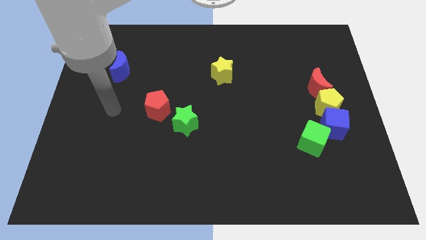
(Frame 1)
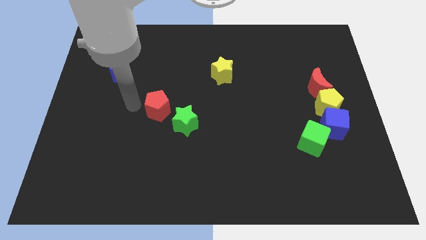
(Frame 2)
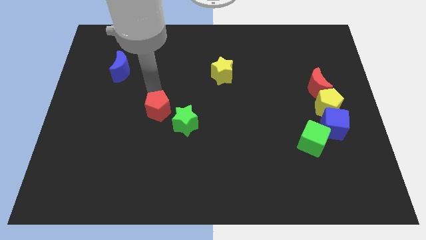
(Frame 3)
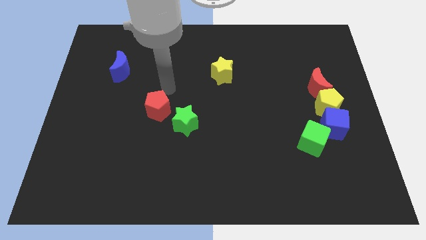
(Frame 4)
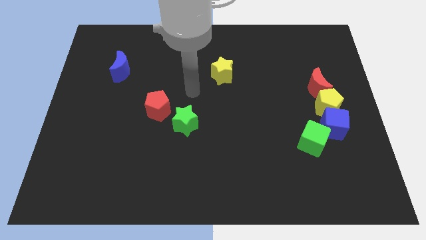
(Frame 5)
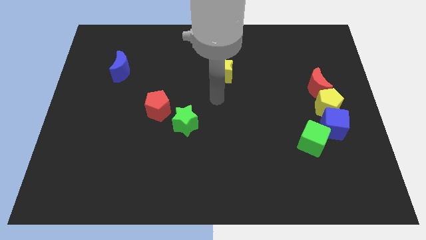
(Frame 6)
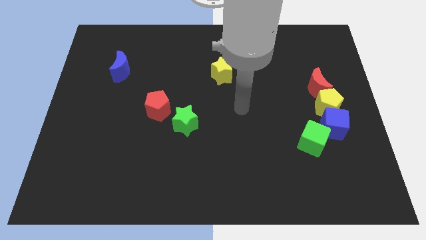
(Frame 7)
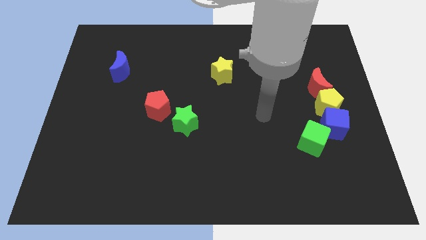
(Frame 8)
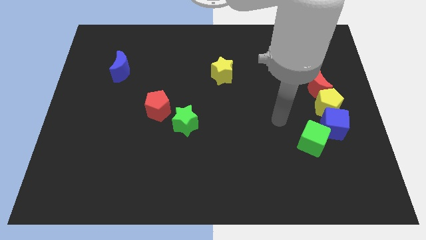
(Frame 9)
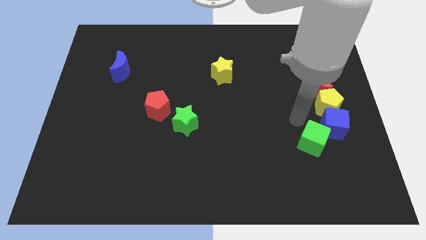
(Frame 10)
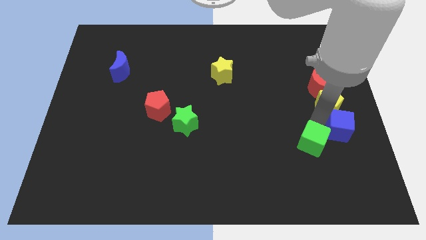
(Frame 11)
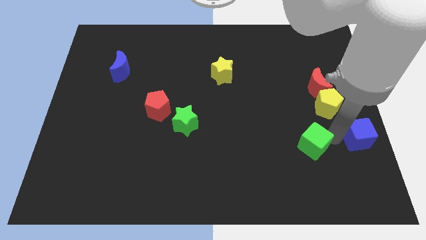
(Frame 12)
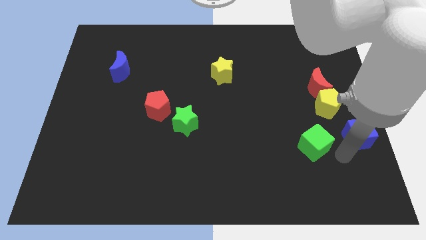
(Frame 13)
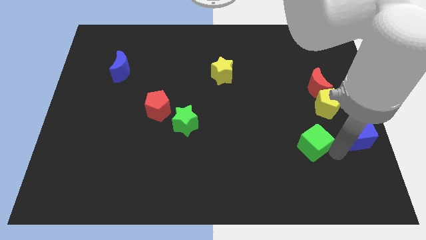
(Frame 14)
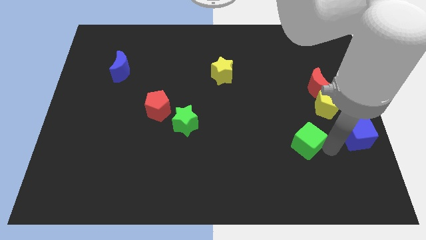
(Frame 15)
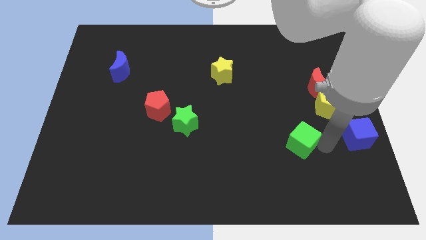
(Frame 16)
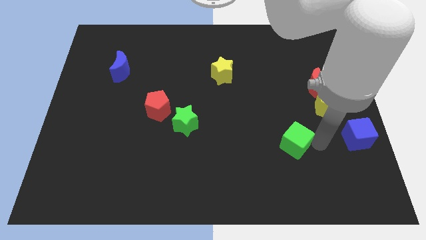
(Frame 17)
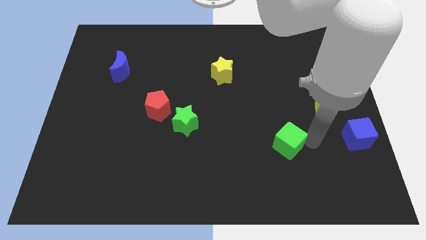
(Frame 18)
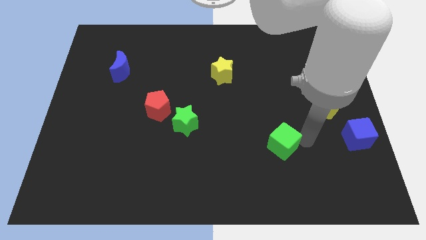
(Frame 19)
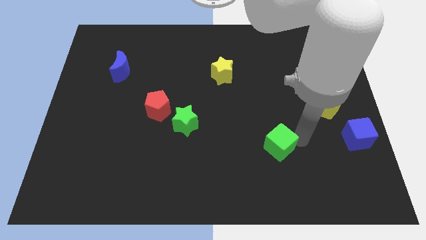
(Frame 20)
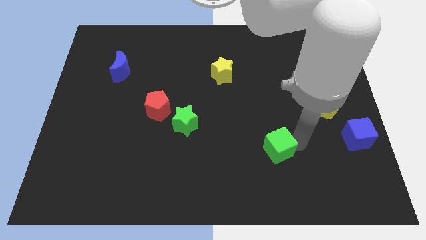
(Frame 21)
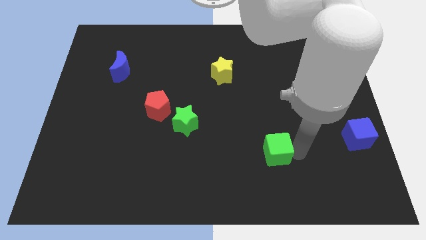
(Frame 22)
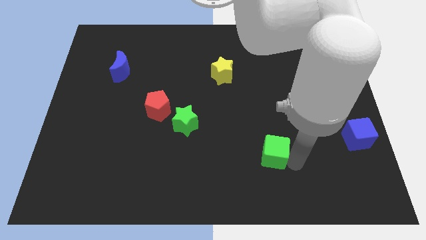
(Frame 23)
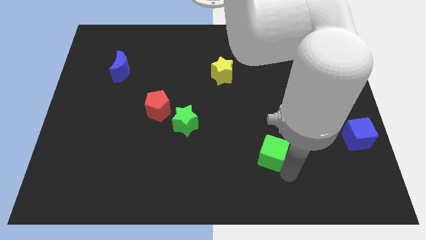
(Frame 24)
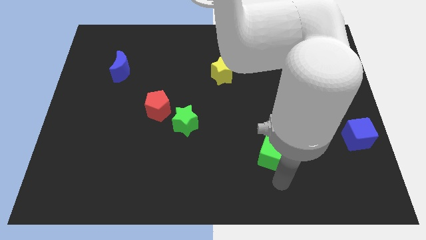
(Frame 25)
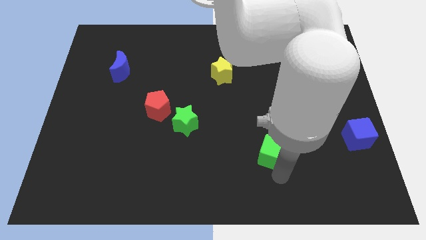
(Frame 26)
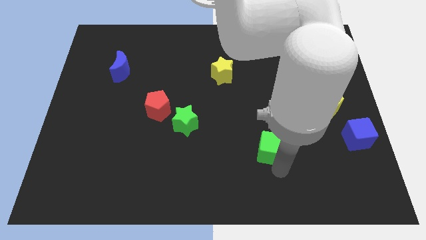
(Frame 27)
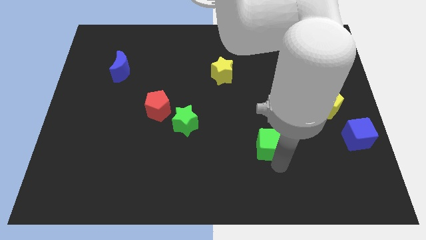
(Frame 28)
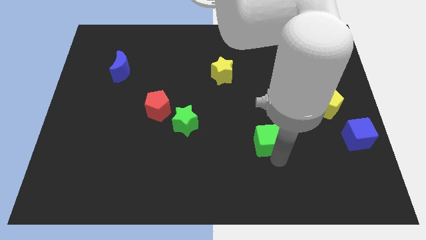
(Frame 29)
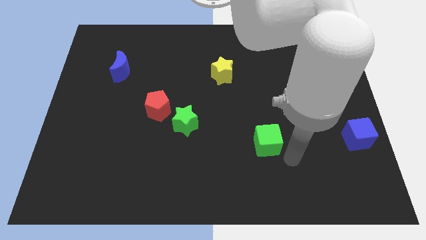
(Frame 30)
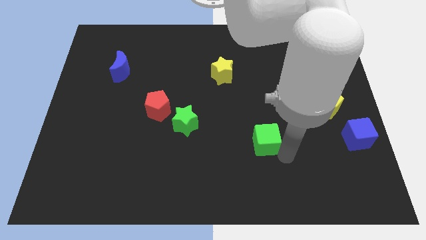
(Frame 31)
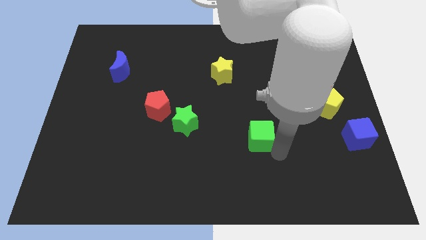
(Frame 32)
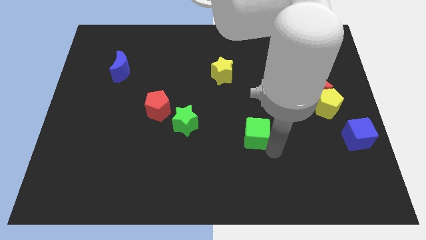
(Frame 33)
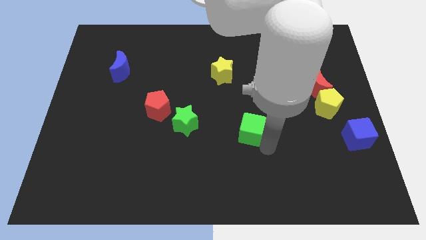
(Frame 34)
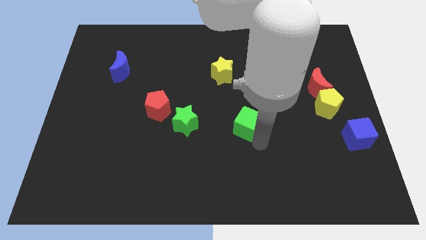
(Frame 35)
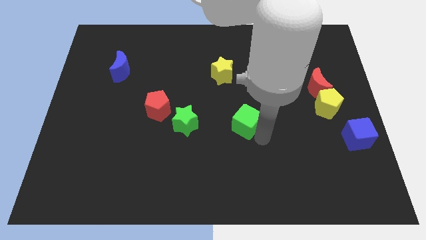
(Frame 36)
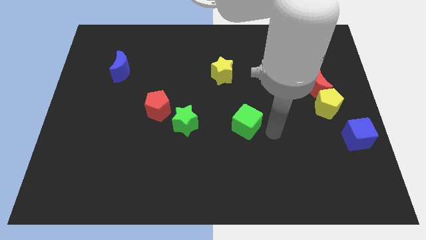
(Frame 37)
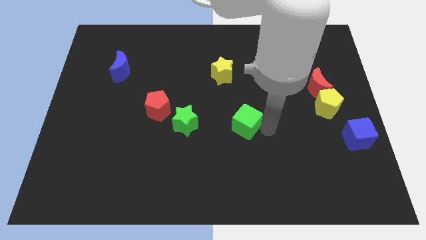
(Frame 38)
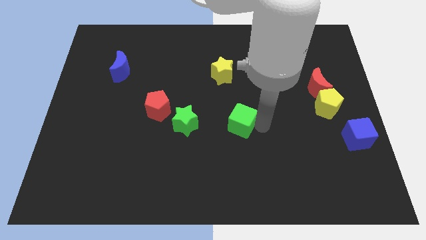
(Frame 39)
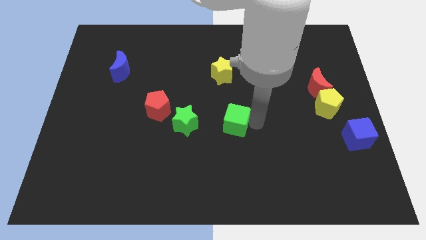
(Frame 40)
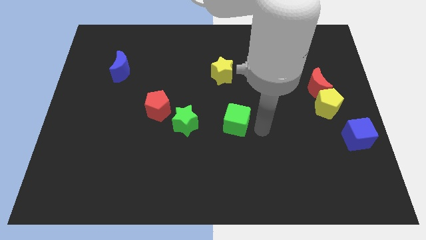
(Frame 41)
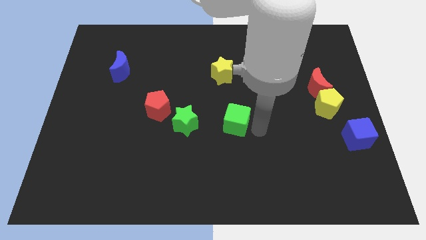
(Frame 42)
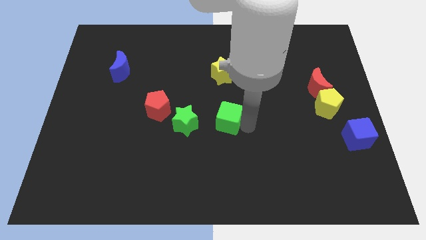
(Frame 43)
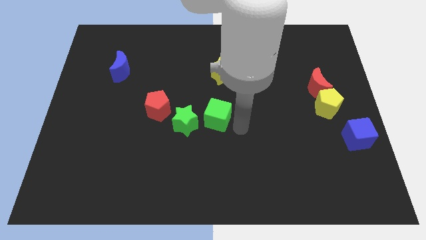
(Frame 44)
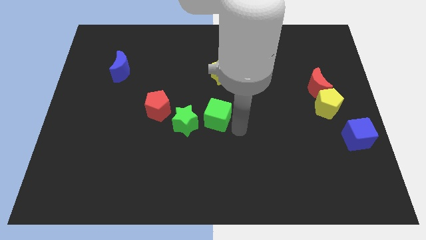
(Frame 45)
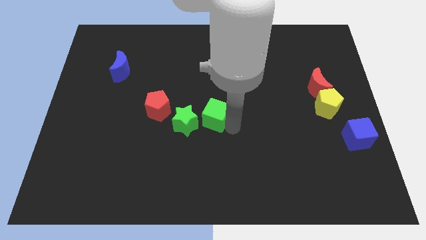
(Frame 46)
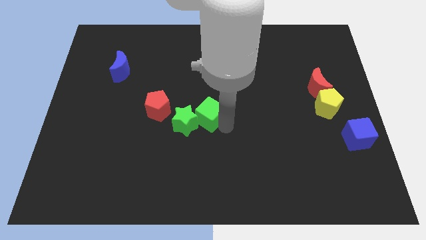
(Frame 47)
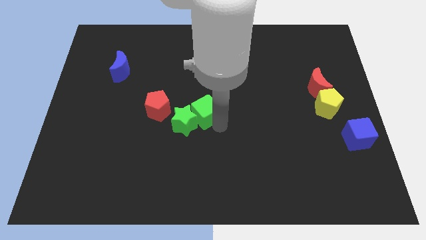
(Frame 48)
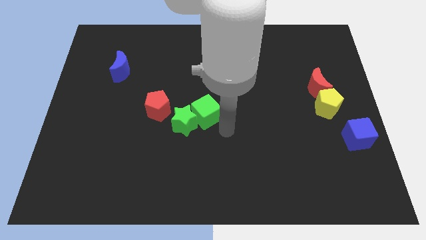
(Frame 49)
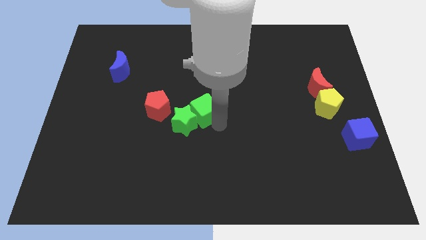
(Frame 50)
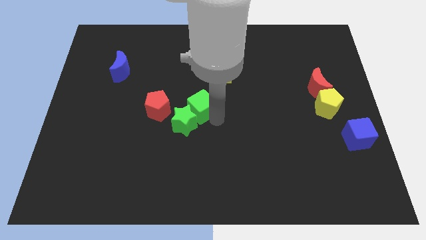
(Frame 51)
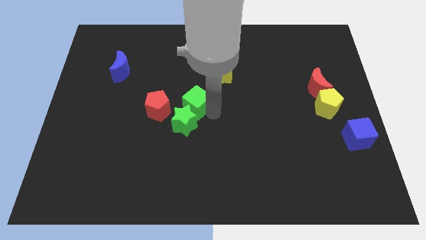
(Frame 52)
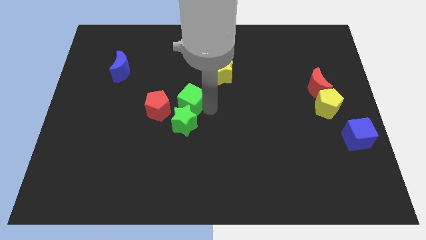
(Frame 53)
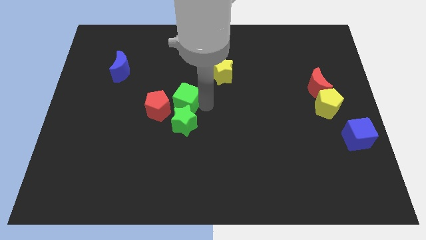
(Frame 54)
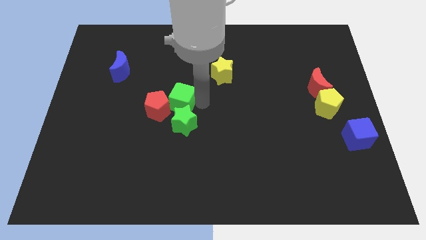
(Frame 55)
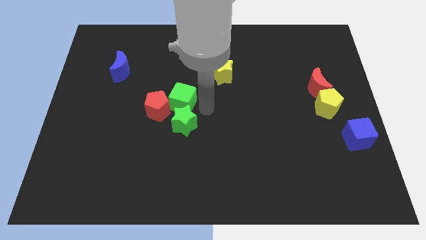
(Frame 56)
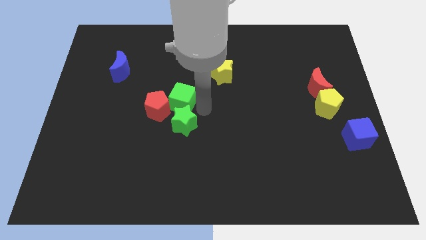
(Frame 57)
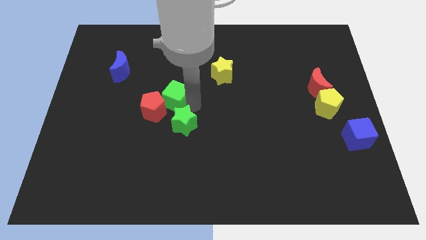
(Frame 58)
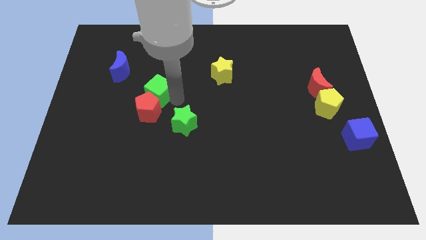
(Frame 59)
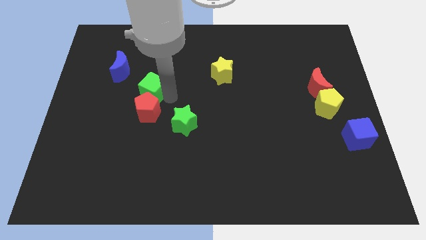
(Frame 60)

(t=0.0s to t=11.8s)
move the green cube to the bottom right of the blue moon
